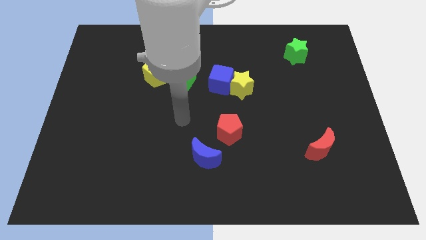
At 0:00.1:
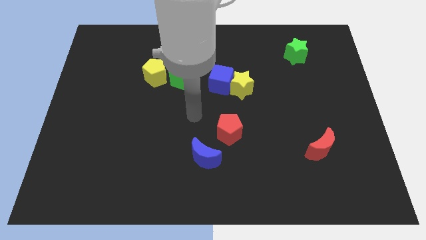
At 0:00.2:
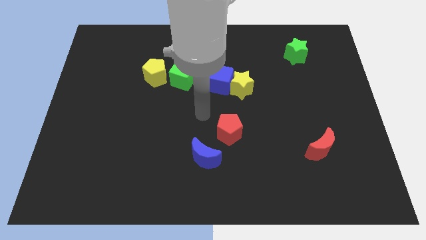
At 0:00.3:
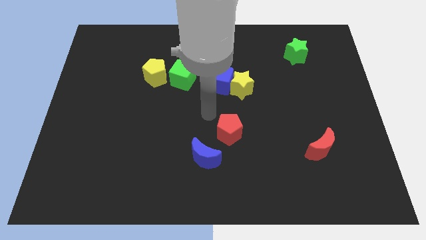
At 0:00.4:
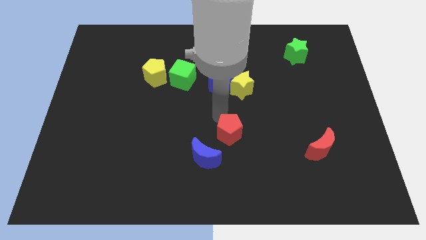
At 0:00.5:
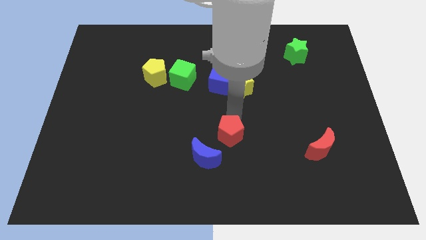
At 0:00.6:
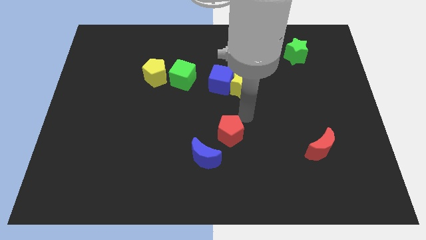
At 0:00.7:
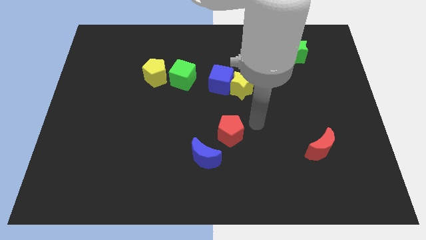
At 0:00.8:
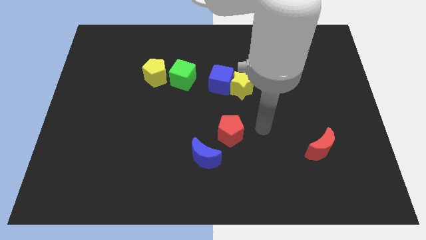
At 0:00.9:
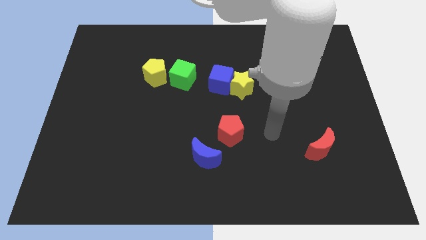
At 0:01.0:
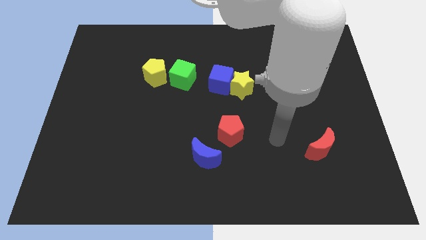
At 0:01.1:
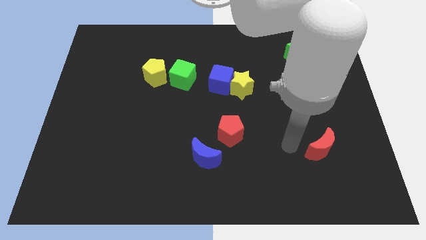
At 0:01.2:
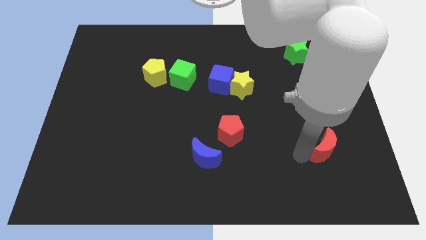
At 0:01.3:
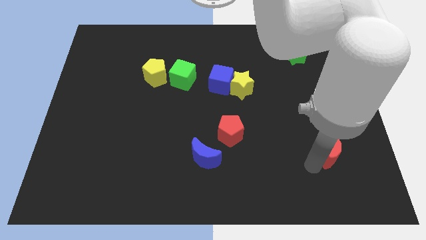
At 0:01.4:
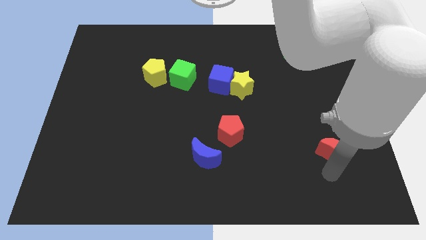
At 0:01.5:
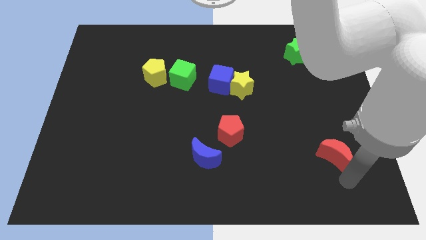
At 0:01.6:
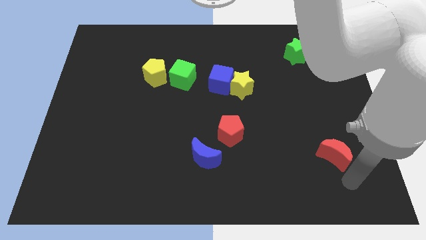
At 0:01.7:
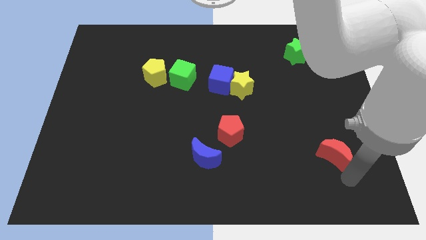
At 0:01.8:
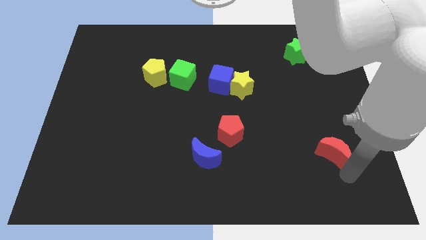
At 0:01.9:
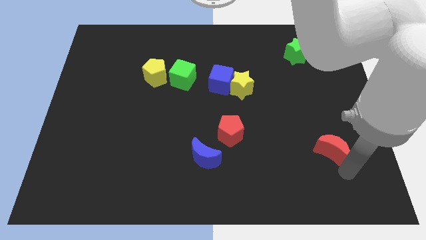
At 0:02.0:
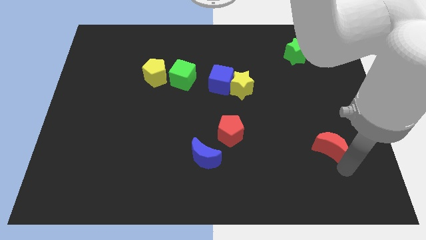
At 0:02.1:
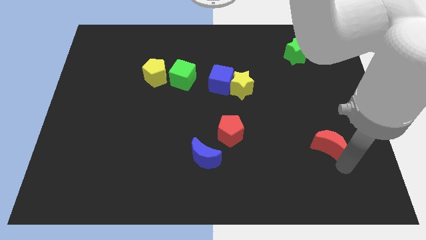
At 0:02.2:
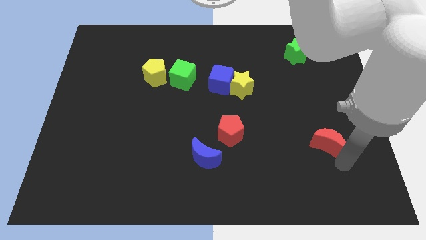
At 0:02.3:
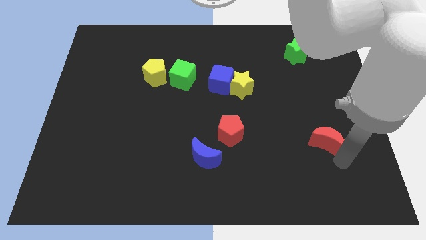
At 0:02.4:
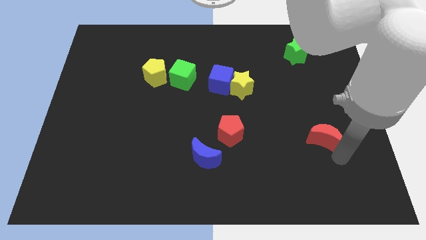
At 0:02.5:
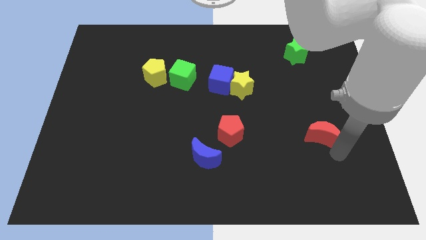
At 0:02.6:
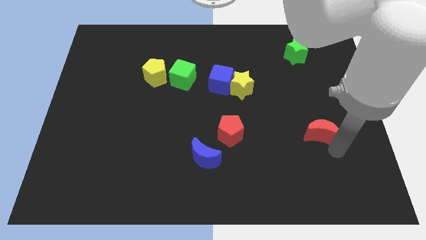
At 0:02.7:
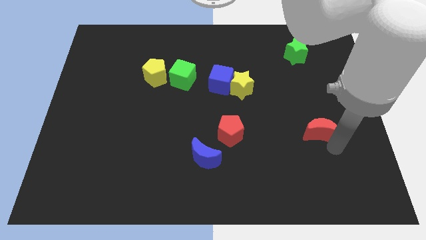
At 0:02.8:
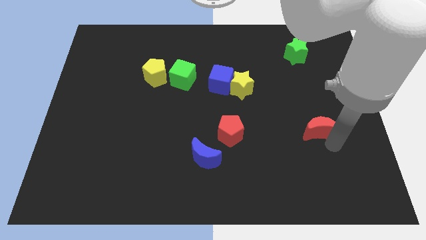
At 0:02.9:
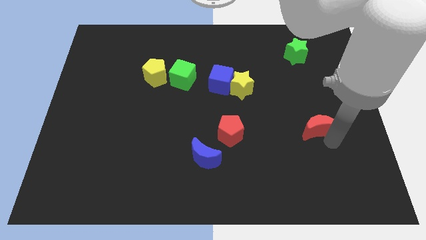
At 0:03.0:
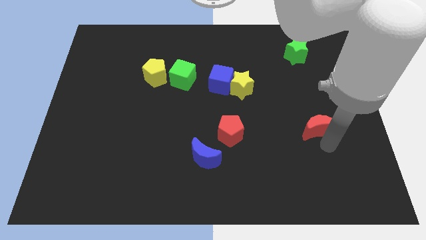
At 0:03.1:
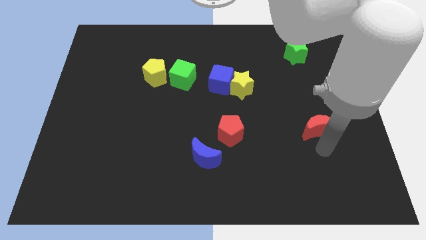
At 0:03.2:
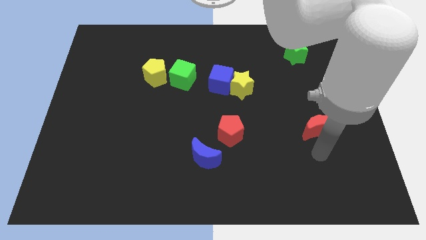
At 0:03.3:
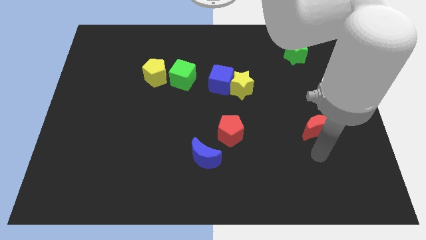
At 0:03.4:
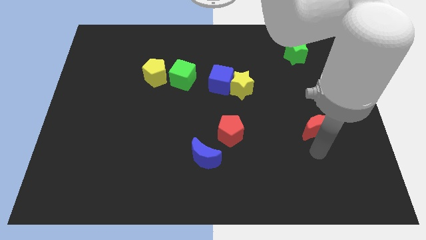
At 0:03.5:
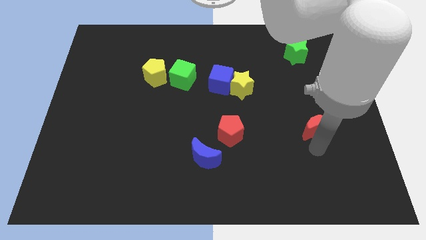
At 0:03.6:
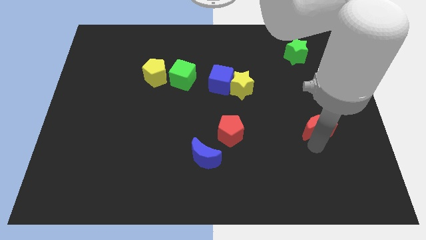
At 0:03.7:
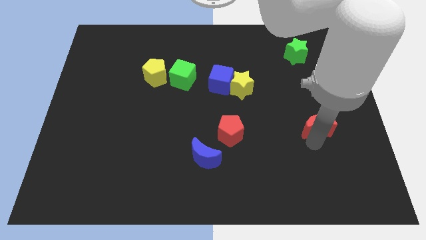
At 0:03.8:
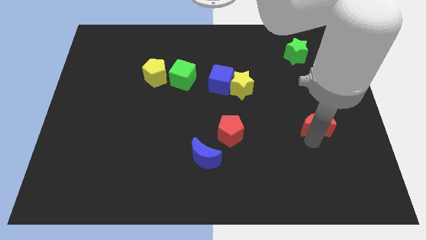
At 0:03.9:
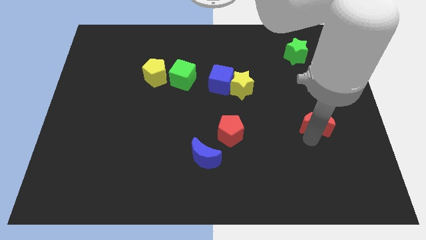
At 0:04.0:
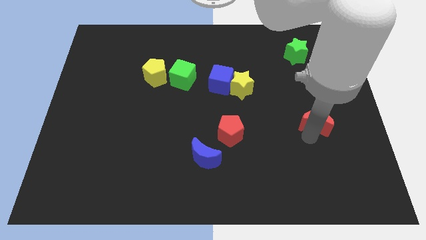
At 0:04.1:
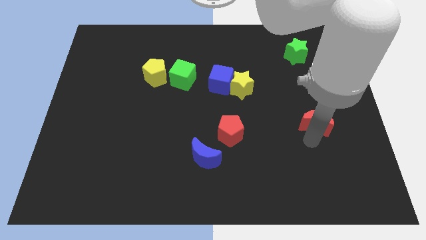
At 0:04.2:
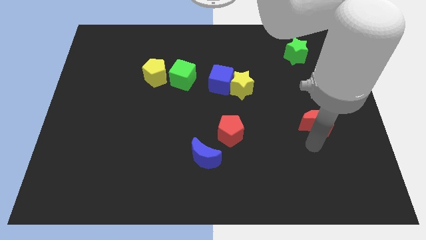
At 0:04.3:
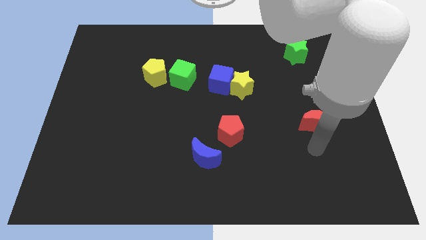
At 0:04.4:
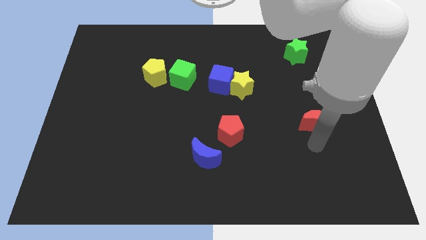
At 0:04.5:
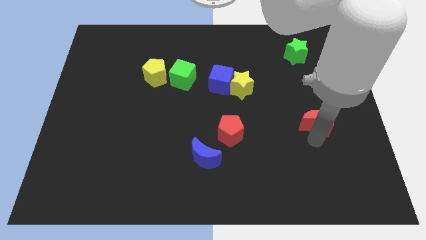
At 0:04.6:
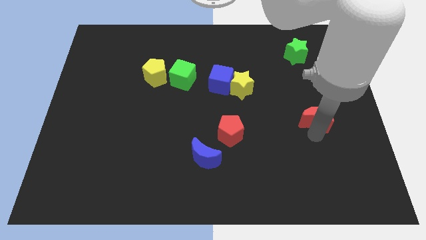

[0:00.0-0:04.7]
slide the red moon somewhat up

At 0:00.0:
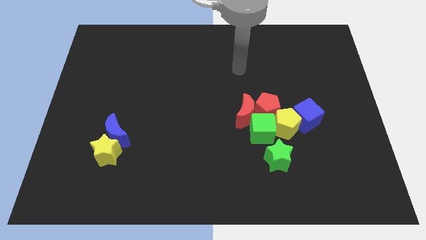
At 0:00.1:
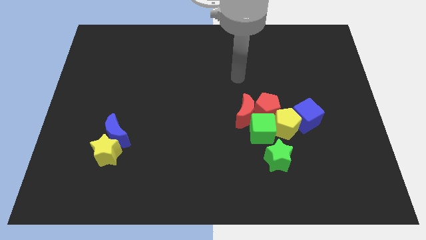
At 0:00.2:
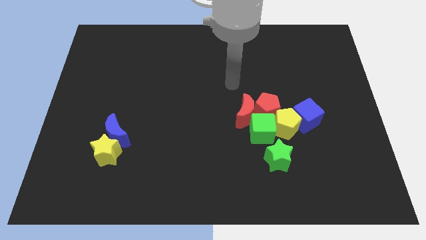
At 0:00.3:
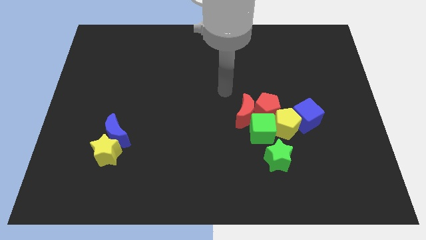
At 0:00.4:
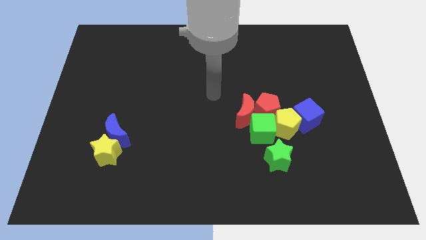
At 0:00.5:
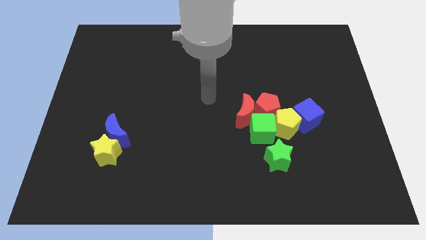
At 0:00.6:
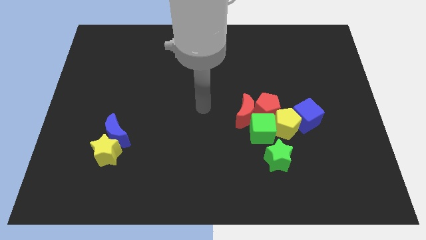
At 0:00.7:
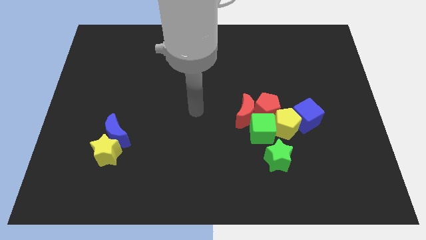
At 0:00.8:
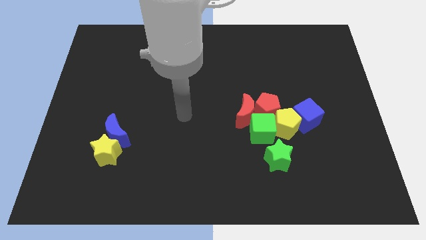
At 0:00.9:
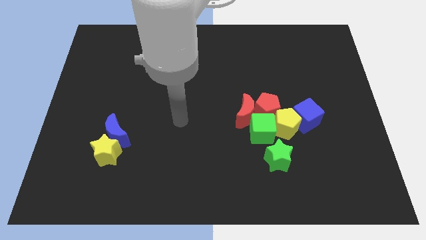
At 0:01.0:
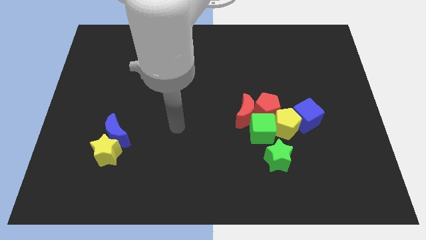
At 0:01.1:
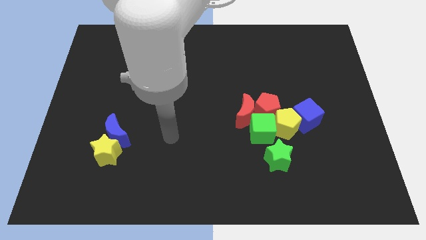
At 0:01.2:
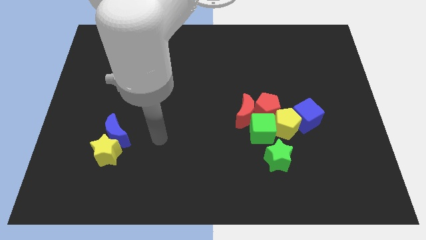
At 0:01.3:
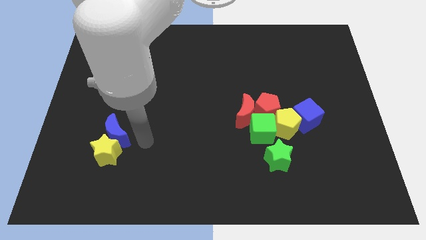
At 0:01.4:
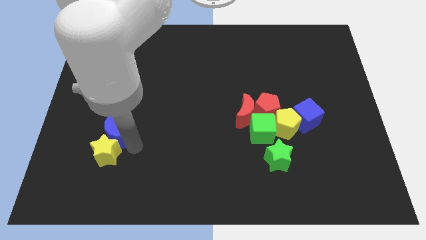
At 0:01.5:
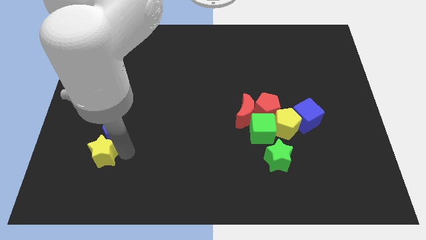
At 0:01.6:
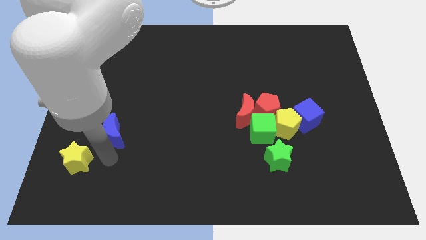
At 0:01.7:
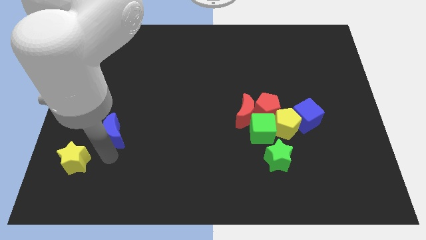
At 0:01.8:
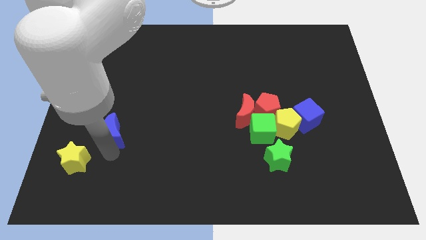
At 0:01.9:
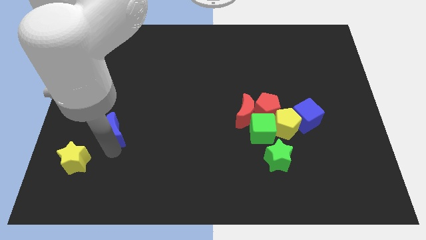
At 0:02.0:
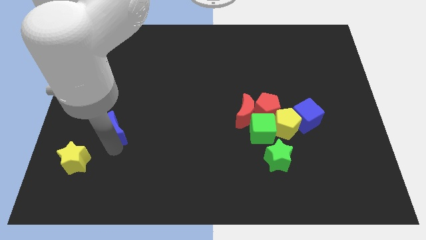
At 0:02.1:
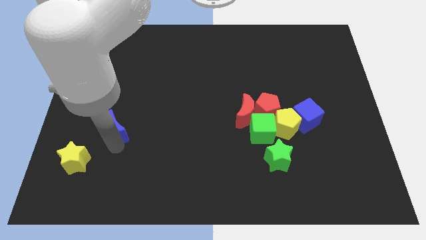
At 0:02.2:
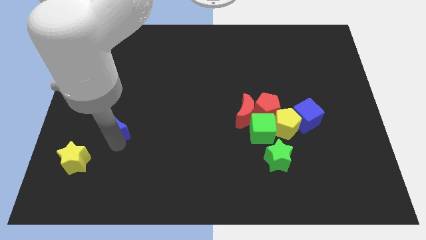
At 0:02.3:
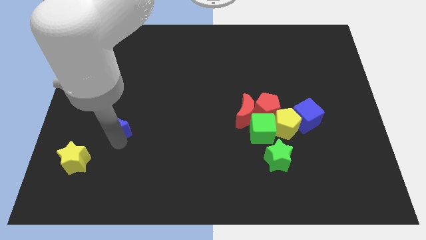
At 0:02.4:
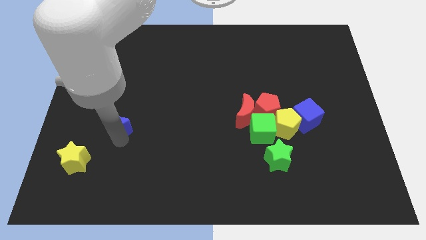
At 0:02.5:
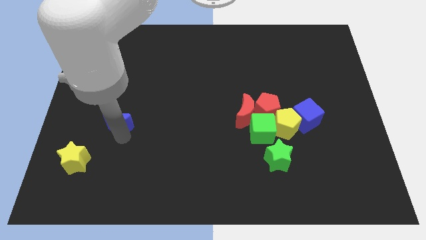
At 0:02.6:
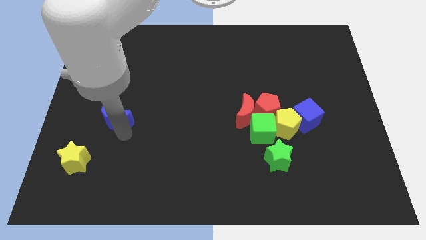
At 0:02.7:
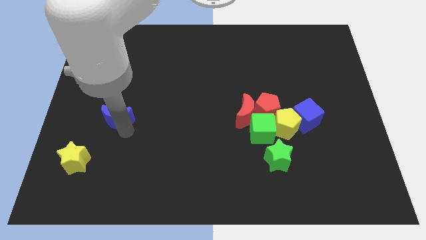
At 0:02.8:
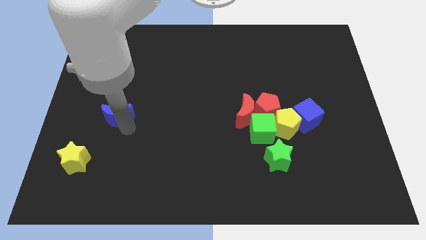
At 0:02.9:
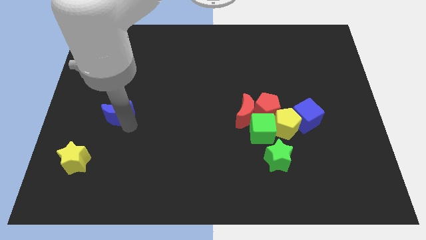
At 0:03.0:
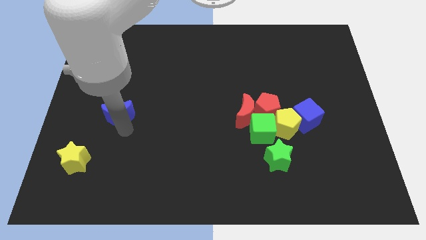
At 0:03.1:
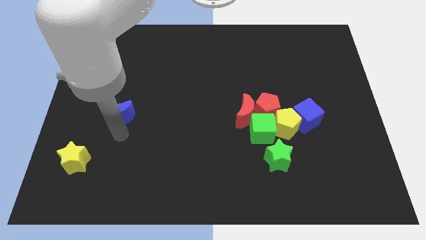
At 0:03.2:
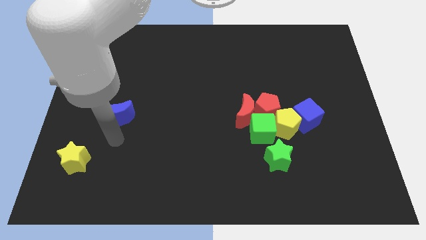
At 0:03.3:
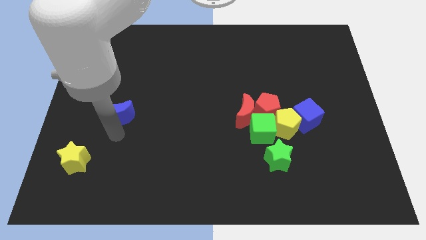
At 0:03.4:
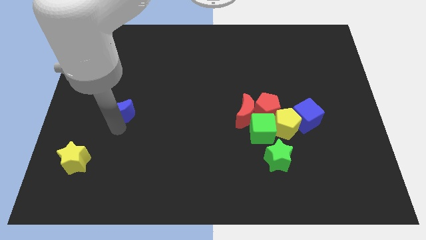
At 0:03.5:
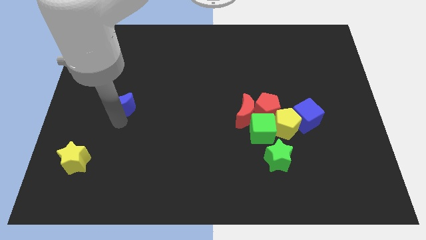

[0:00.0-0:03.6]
move the blue moon upwards slightly
